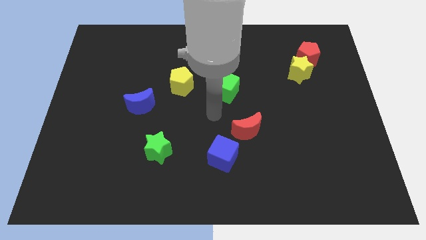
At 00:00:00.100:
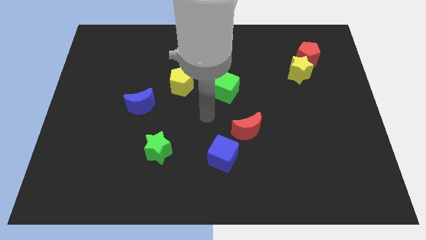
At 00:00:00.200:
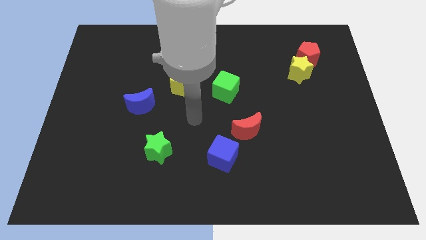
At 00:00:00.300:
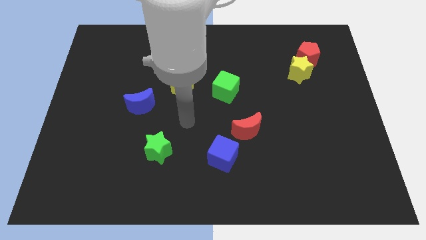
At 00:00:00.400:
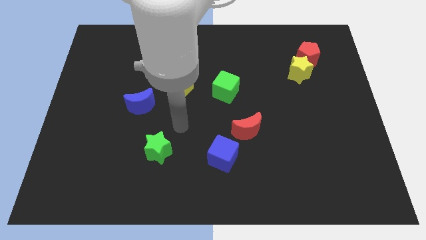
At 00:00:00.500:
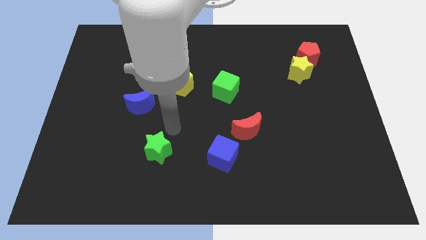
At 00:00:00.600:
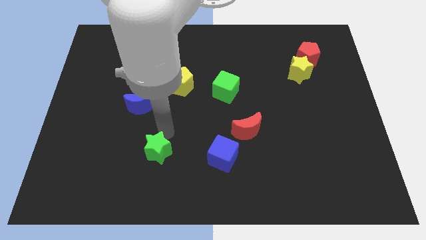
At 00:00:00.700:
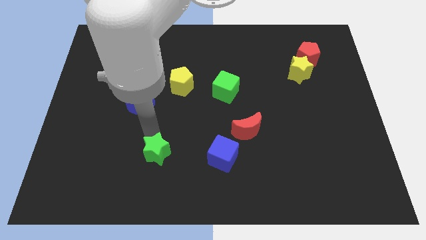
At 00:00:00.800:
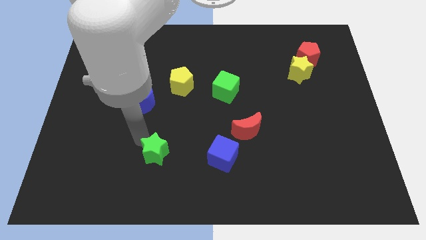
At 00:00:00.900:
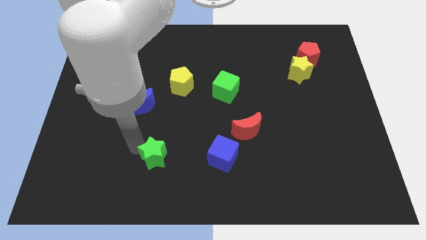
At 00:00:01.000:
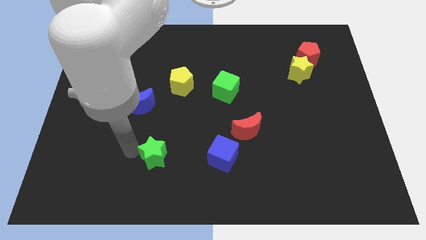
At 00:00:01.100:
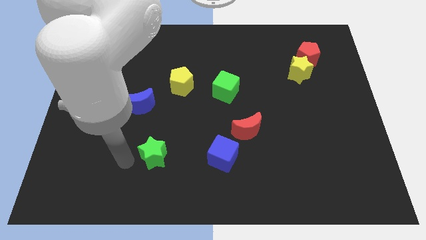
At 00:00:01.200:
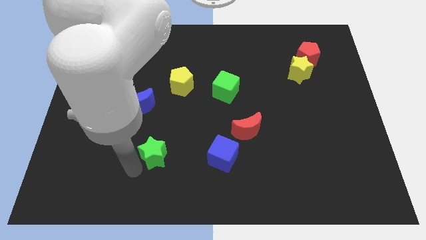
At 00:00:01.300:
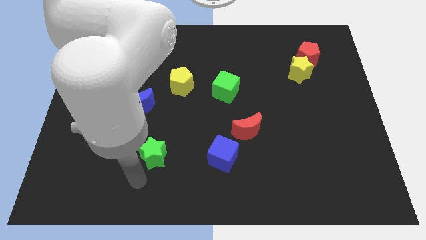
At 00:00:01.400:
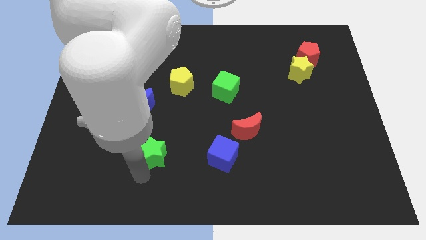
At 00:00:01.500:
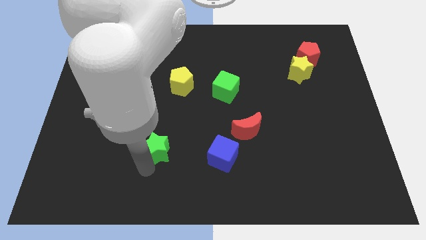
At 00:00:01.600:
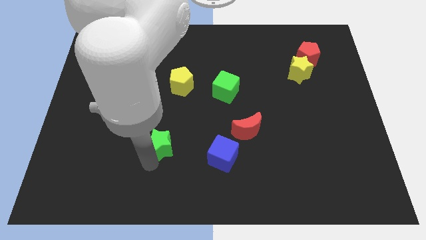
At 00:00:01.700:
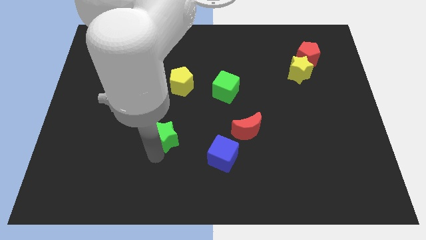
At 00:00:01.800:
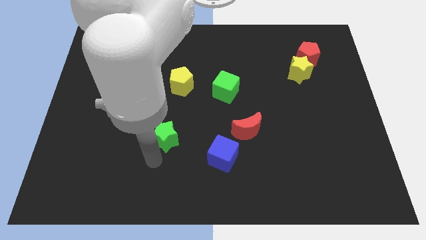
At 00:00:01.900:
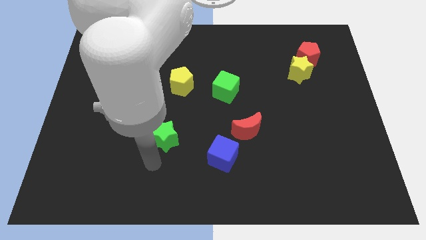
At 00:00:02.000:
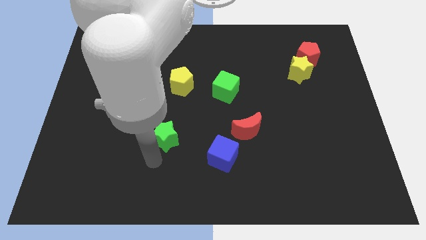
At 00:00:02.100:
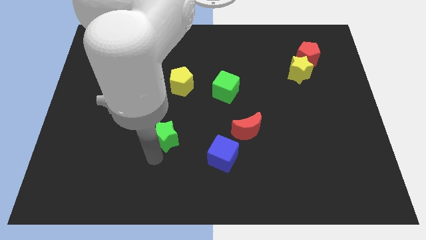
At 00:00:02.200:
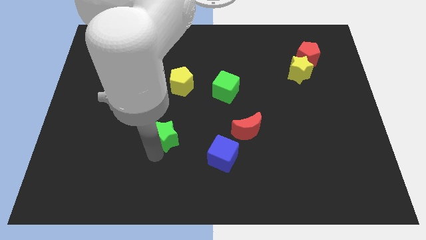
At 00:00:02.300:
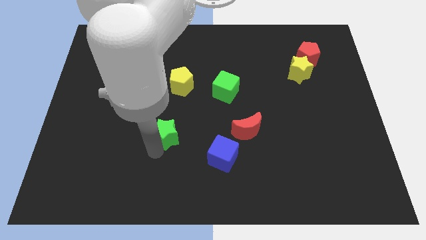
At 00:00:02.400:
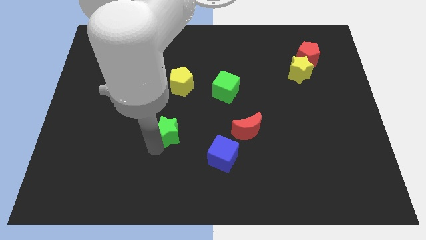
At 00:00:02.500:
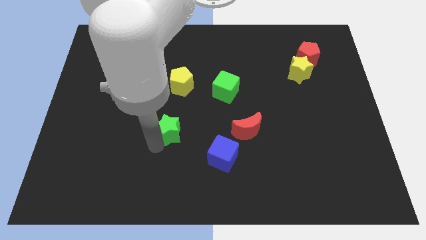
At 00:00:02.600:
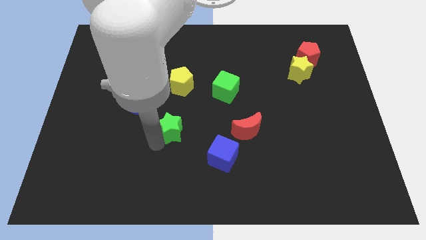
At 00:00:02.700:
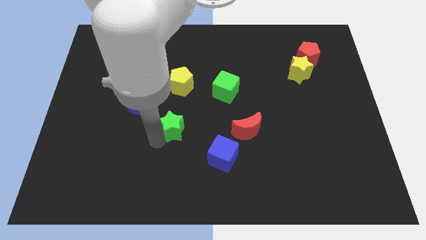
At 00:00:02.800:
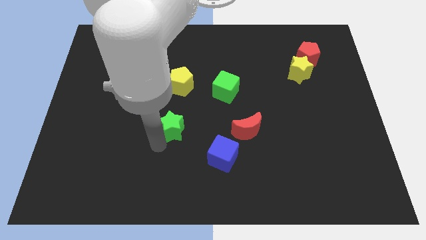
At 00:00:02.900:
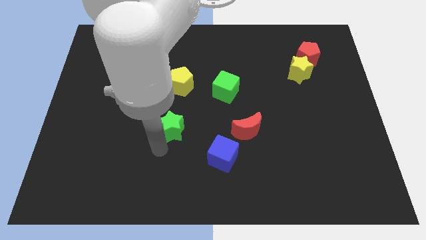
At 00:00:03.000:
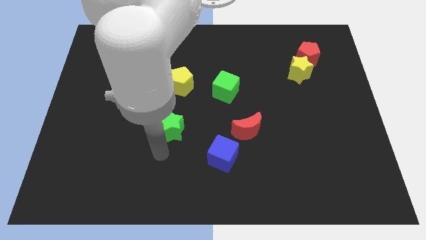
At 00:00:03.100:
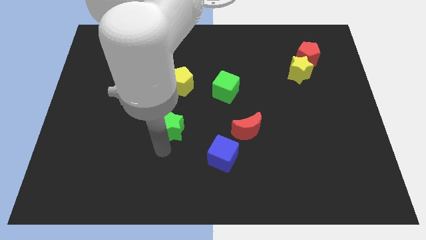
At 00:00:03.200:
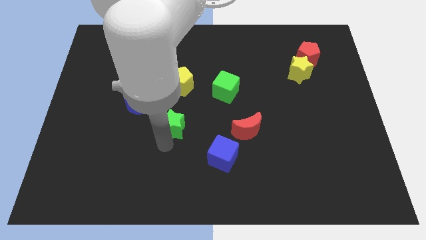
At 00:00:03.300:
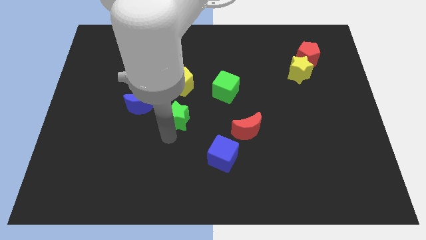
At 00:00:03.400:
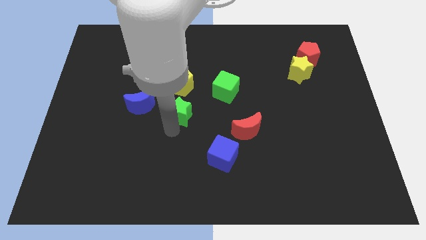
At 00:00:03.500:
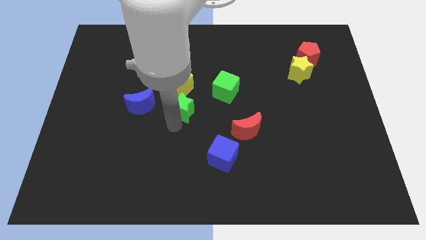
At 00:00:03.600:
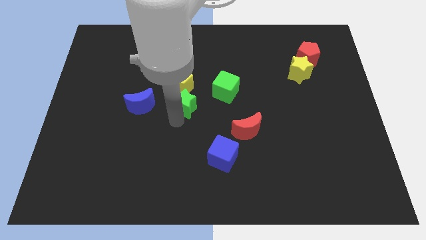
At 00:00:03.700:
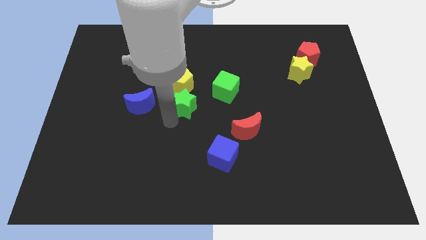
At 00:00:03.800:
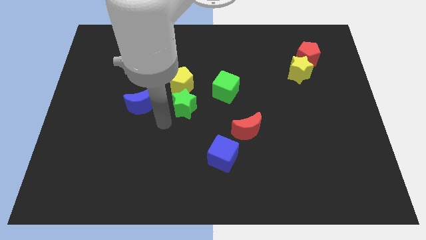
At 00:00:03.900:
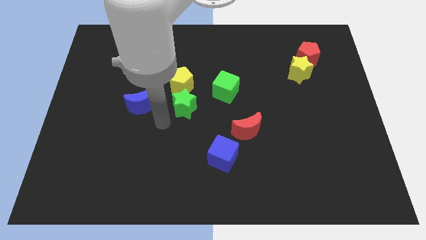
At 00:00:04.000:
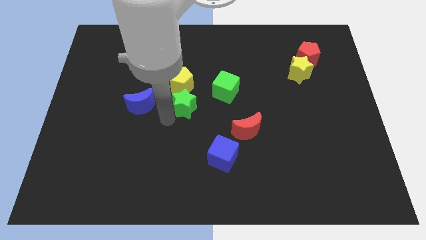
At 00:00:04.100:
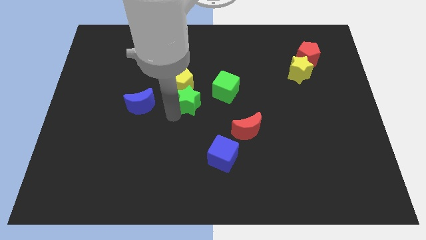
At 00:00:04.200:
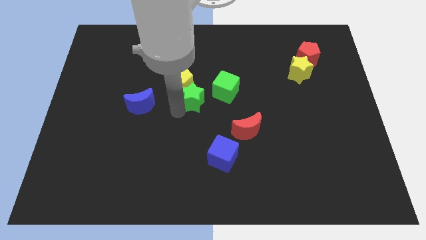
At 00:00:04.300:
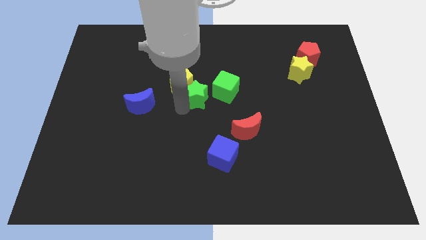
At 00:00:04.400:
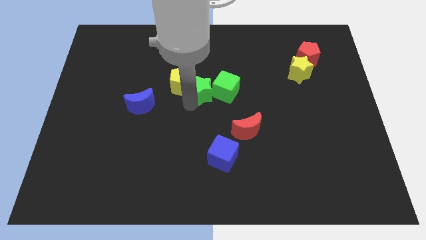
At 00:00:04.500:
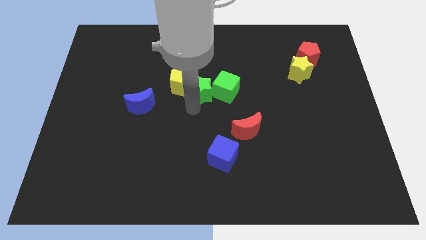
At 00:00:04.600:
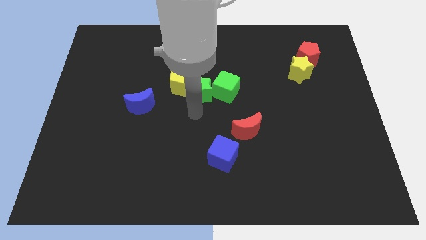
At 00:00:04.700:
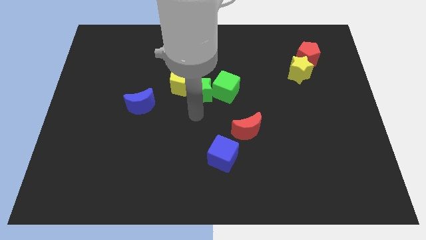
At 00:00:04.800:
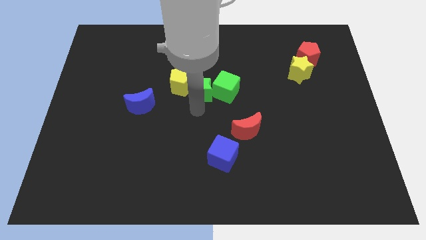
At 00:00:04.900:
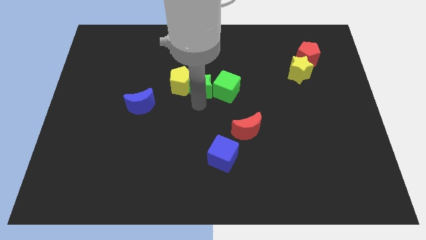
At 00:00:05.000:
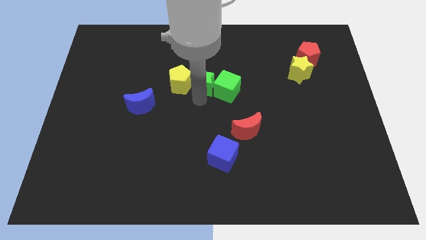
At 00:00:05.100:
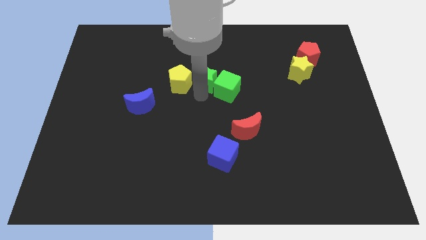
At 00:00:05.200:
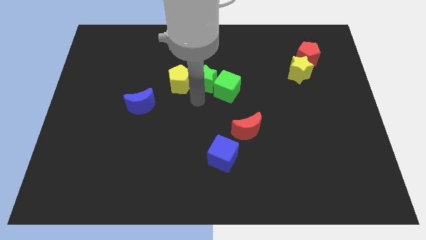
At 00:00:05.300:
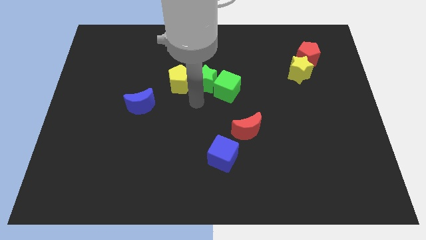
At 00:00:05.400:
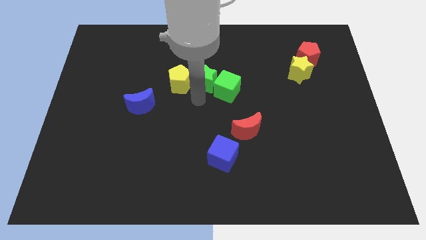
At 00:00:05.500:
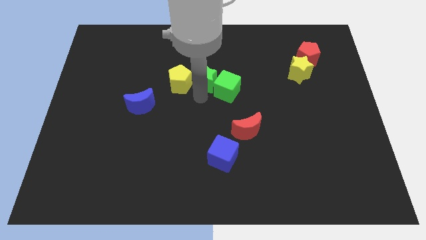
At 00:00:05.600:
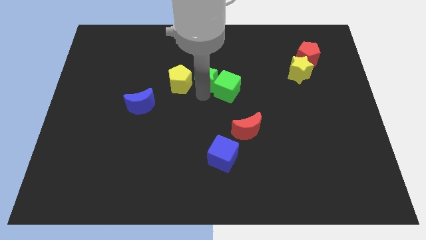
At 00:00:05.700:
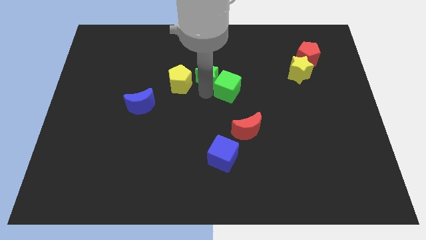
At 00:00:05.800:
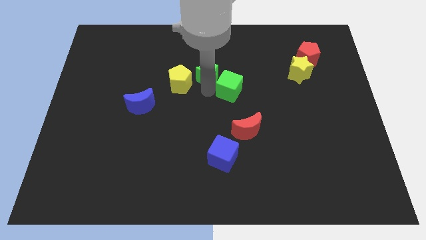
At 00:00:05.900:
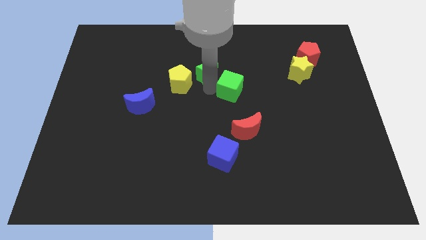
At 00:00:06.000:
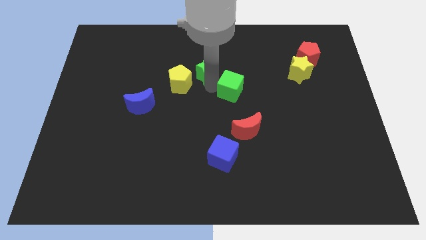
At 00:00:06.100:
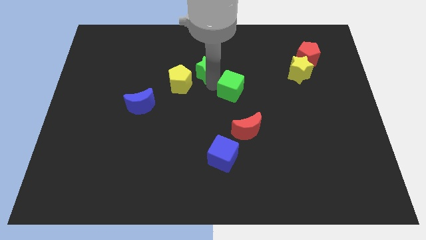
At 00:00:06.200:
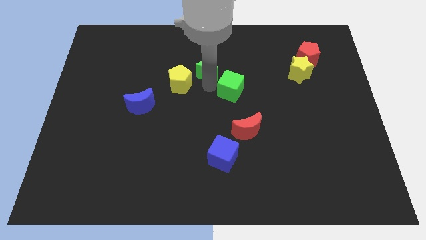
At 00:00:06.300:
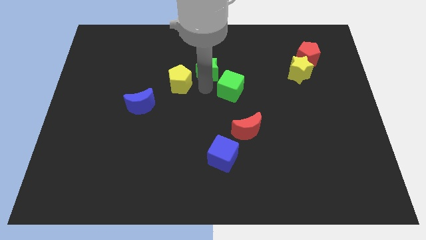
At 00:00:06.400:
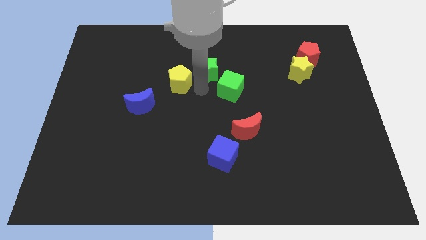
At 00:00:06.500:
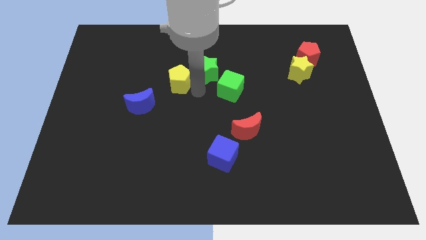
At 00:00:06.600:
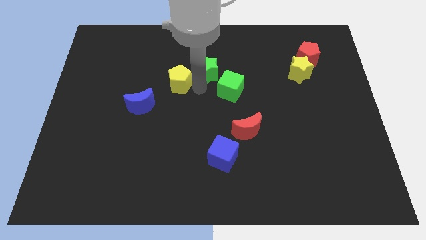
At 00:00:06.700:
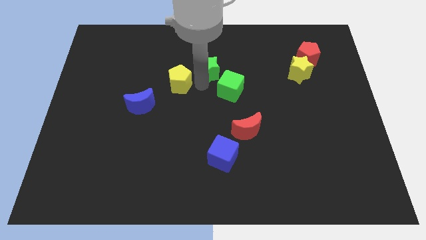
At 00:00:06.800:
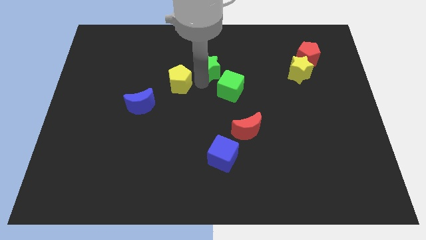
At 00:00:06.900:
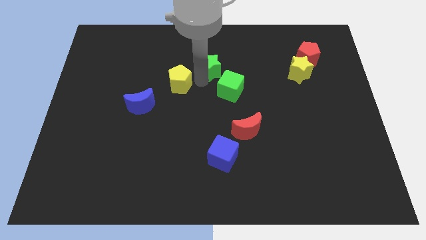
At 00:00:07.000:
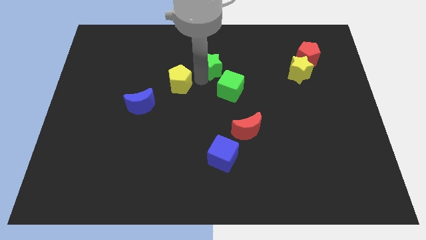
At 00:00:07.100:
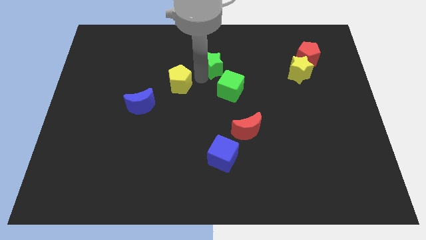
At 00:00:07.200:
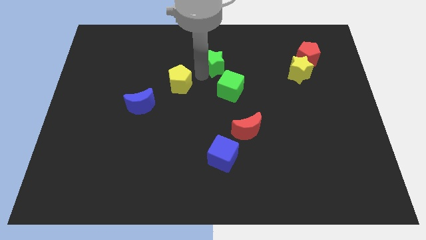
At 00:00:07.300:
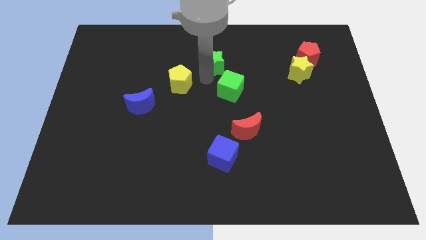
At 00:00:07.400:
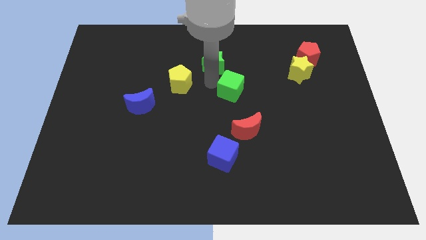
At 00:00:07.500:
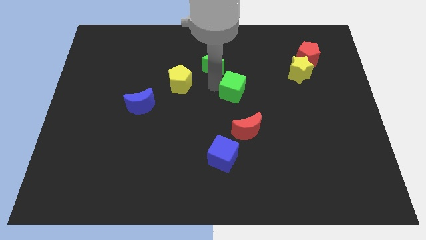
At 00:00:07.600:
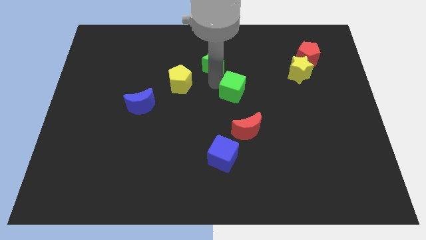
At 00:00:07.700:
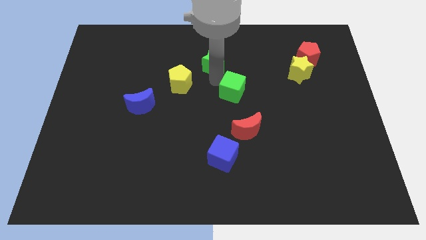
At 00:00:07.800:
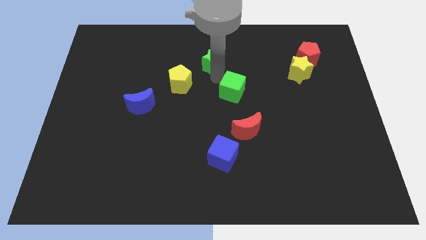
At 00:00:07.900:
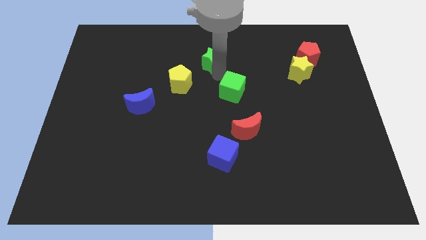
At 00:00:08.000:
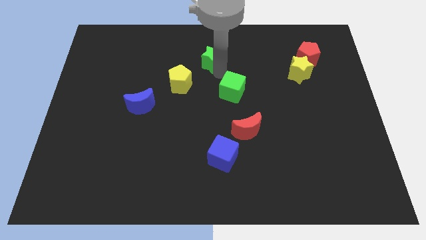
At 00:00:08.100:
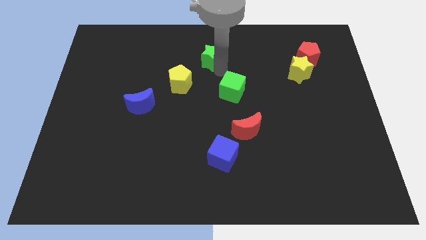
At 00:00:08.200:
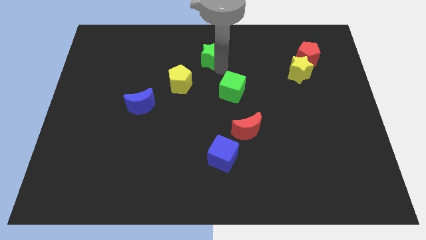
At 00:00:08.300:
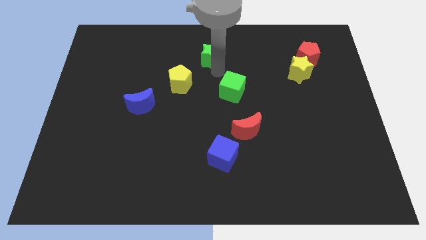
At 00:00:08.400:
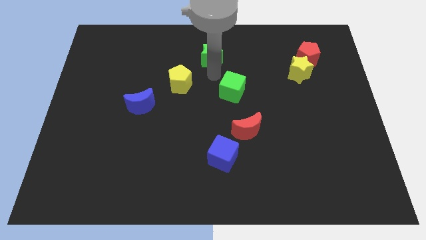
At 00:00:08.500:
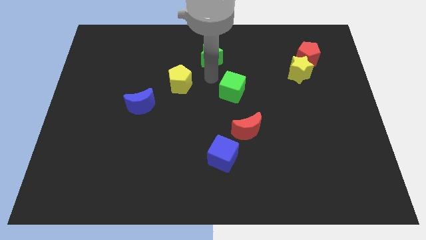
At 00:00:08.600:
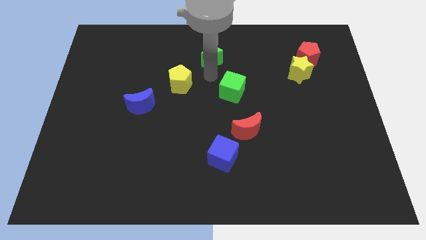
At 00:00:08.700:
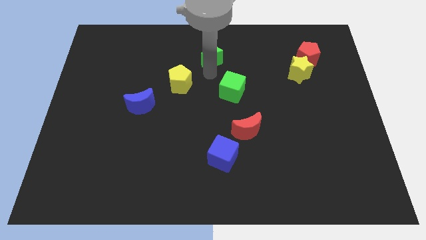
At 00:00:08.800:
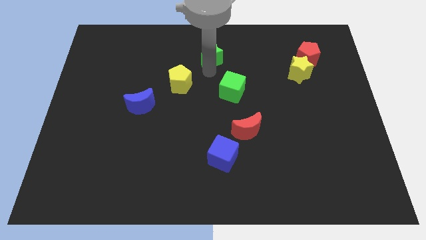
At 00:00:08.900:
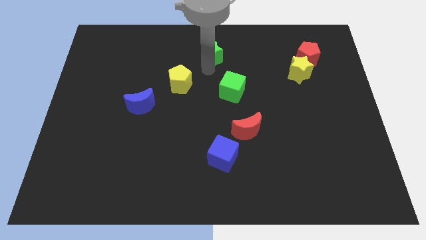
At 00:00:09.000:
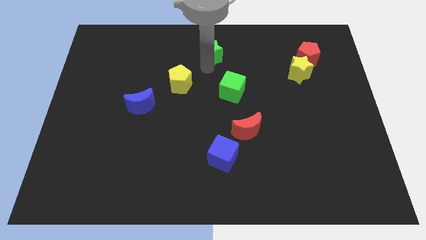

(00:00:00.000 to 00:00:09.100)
slide the green star to the top side
